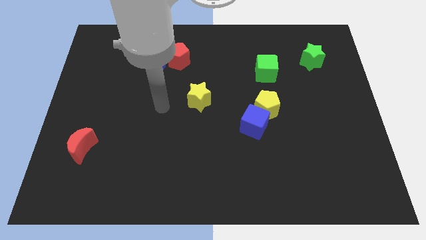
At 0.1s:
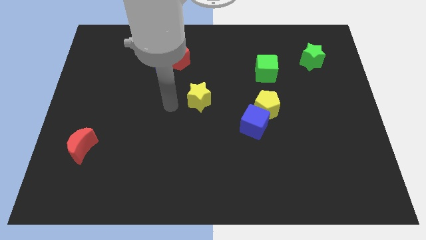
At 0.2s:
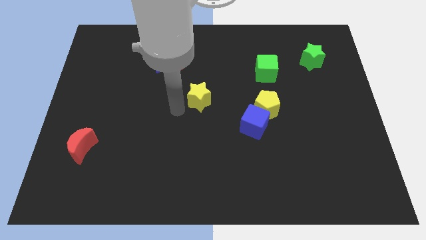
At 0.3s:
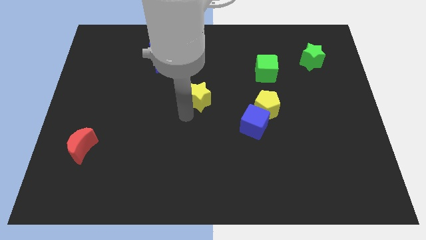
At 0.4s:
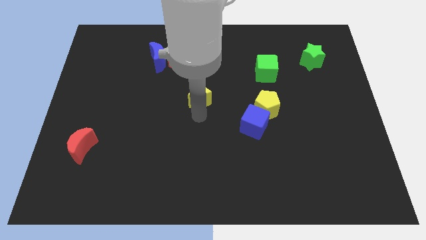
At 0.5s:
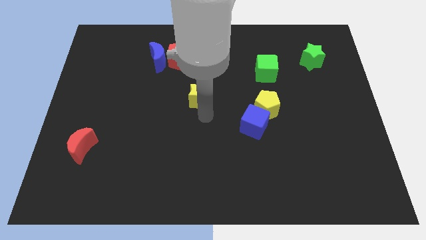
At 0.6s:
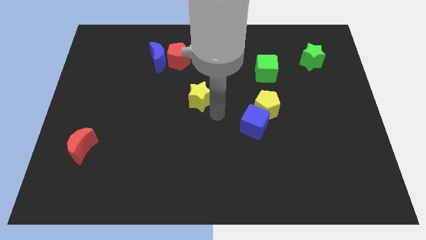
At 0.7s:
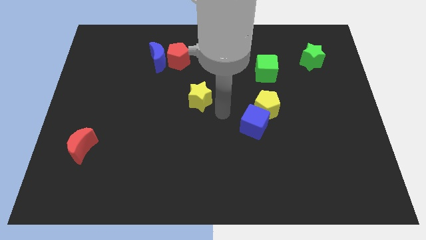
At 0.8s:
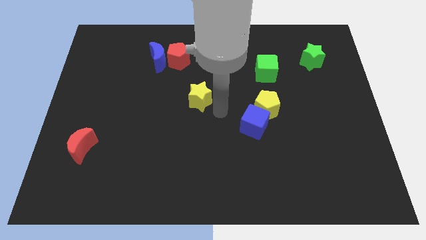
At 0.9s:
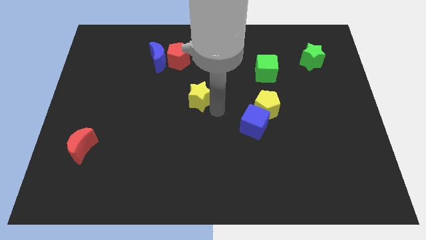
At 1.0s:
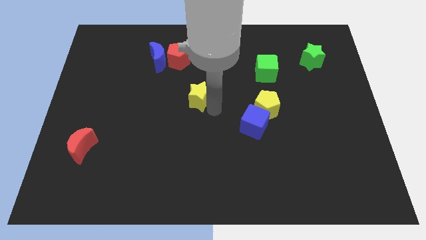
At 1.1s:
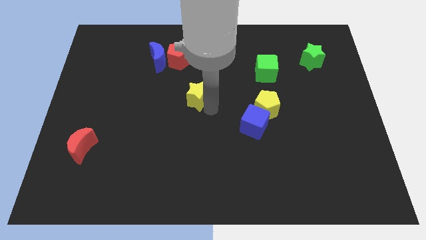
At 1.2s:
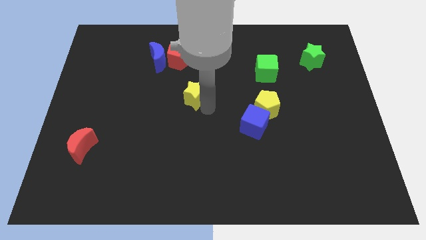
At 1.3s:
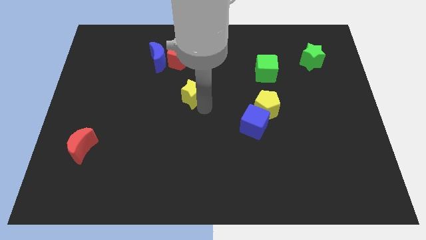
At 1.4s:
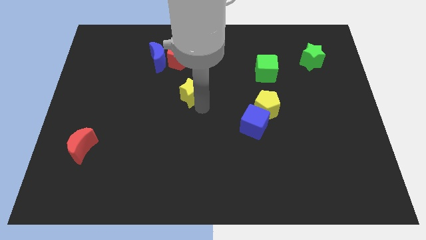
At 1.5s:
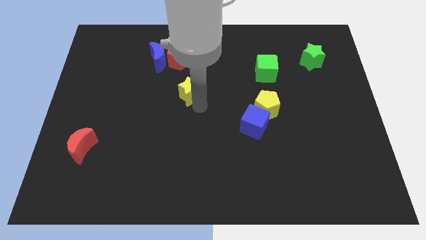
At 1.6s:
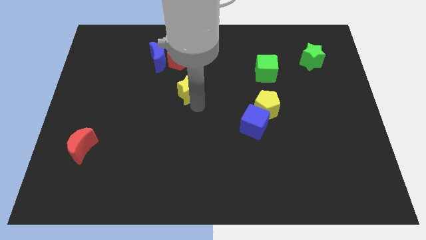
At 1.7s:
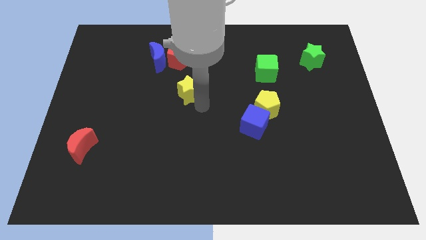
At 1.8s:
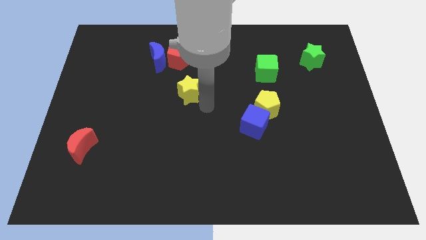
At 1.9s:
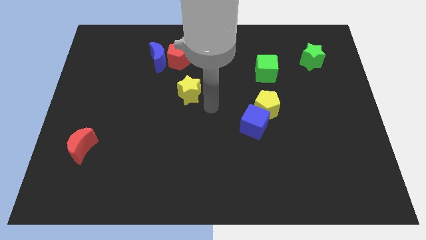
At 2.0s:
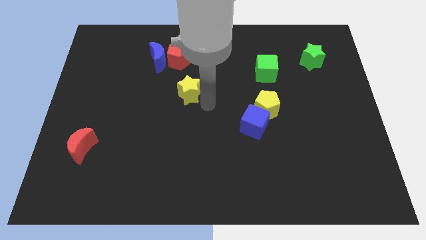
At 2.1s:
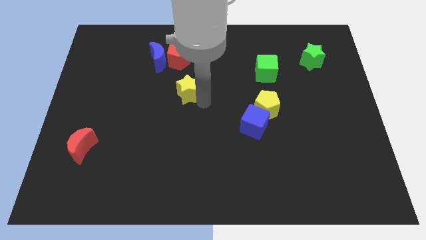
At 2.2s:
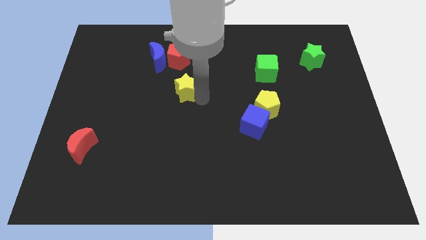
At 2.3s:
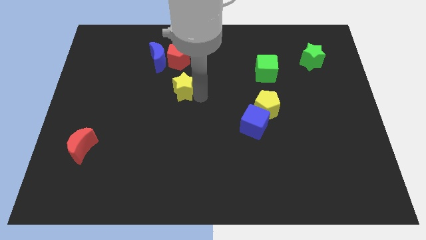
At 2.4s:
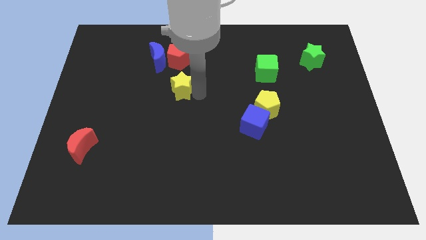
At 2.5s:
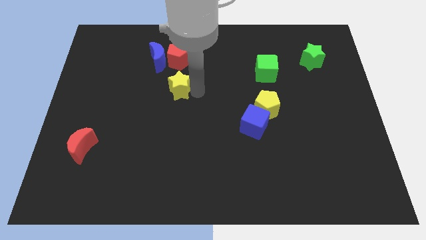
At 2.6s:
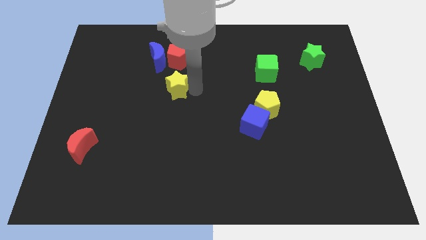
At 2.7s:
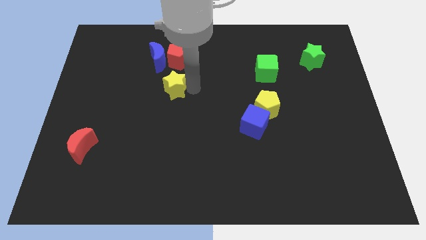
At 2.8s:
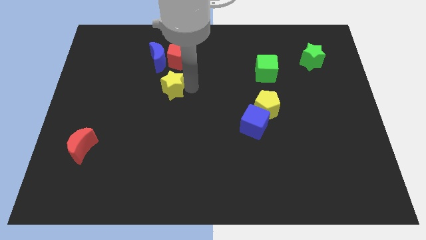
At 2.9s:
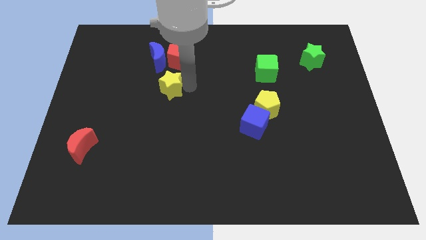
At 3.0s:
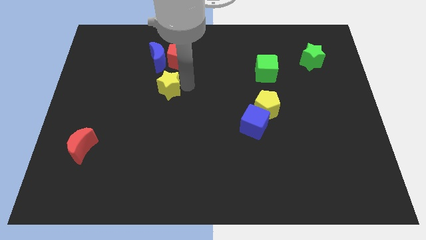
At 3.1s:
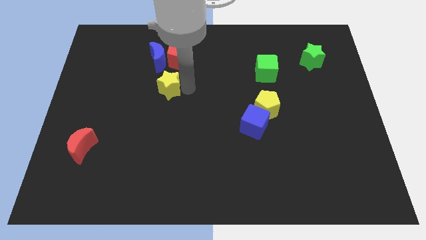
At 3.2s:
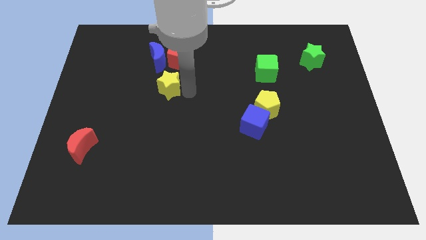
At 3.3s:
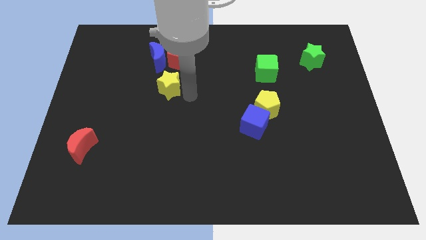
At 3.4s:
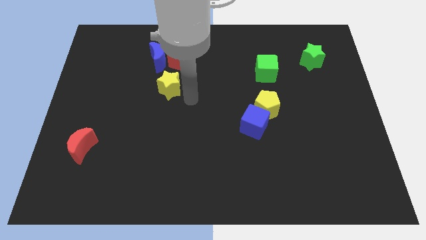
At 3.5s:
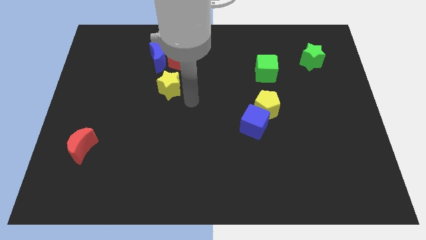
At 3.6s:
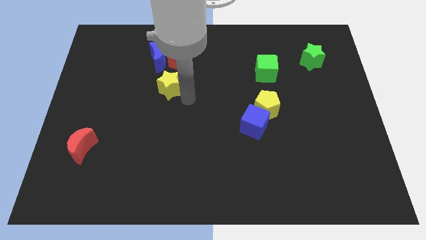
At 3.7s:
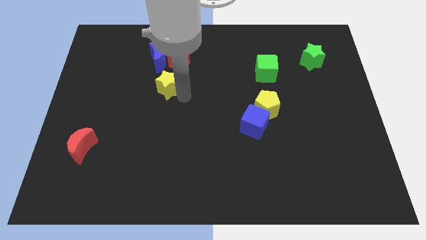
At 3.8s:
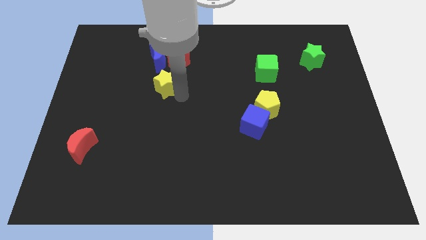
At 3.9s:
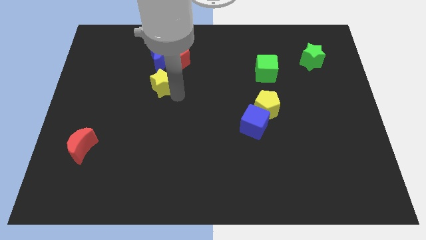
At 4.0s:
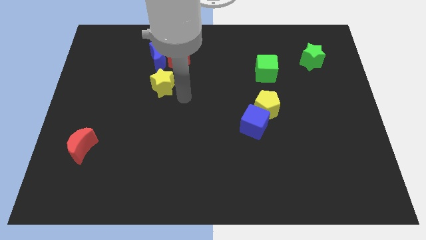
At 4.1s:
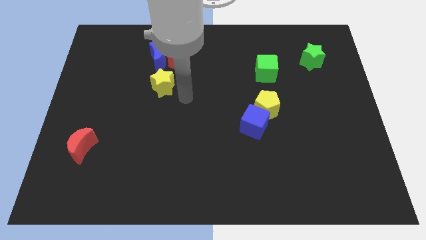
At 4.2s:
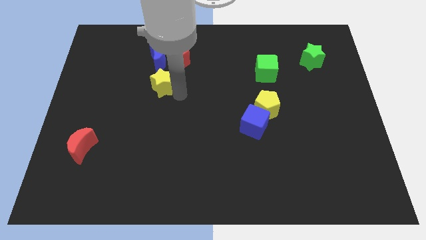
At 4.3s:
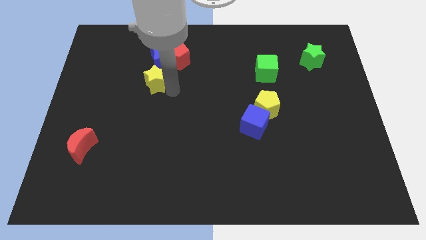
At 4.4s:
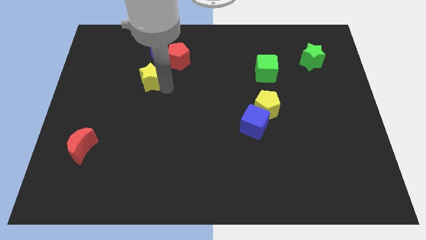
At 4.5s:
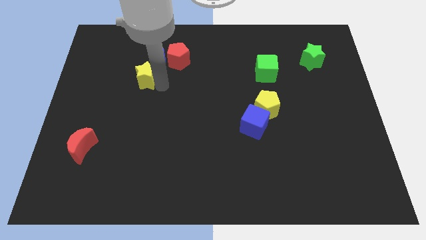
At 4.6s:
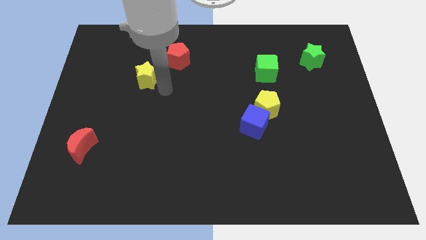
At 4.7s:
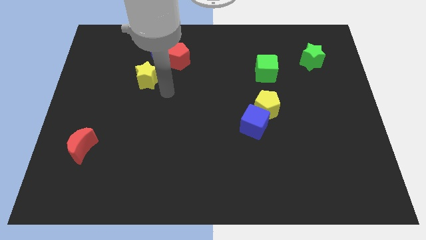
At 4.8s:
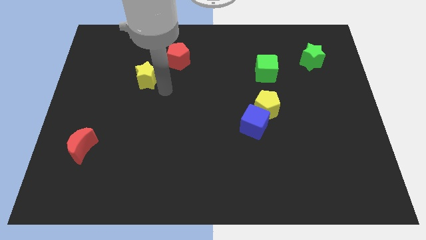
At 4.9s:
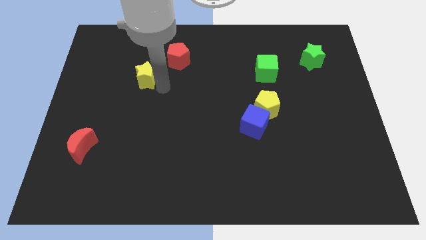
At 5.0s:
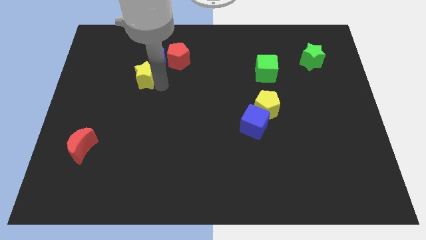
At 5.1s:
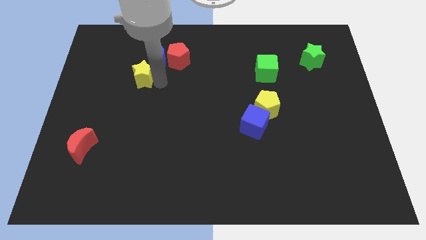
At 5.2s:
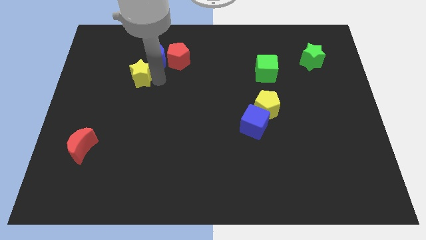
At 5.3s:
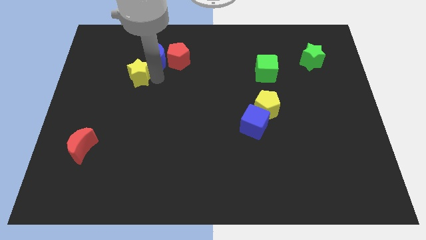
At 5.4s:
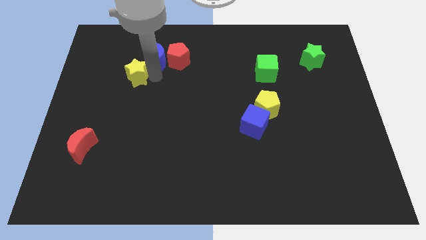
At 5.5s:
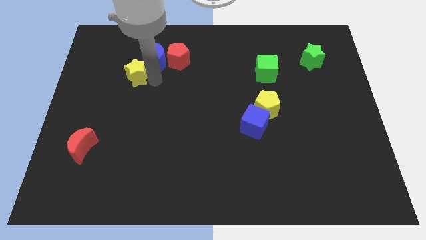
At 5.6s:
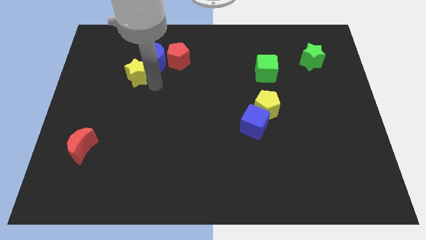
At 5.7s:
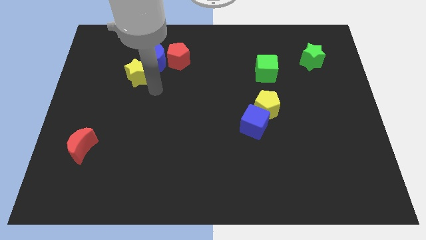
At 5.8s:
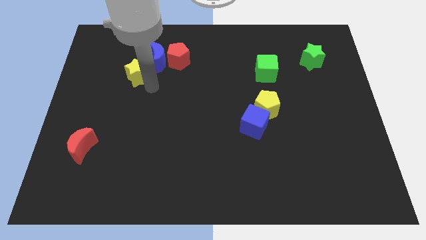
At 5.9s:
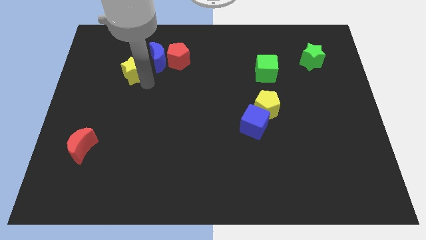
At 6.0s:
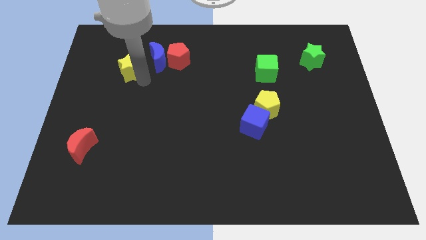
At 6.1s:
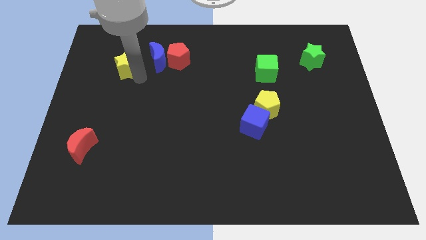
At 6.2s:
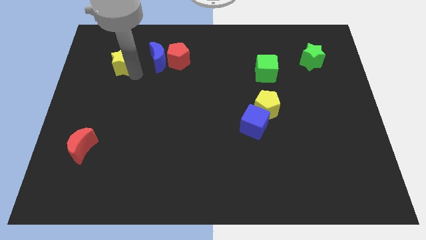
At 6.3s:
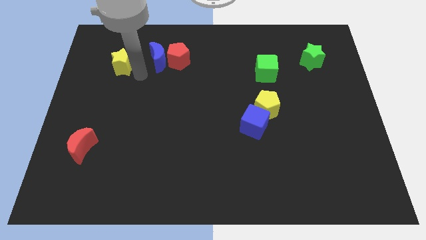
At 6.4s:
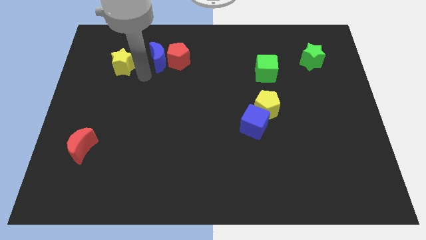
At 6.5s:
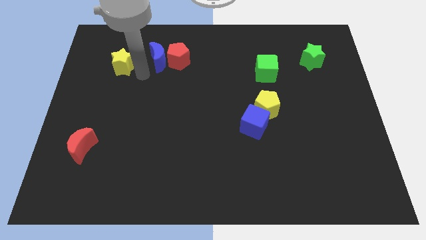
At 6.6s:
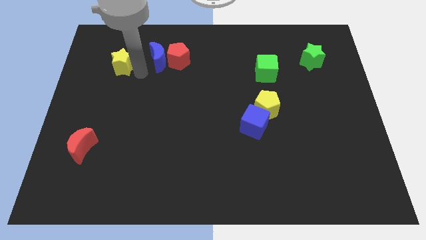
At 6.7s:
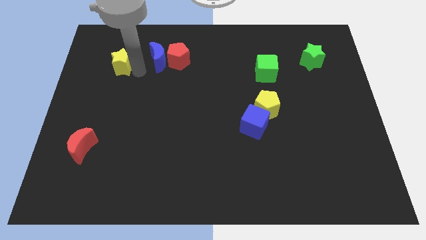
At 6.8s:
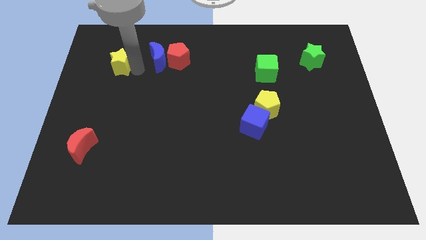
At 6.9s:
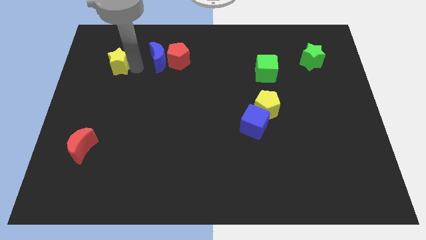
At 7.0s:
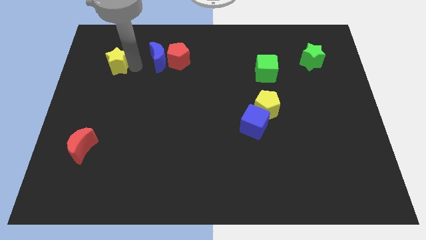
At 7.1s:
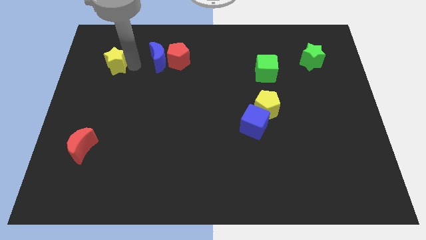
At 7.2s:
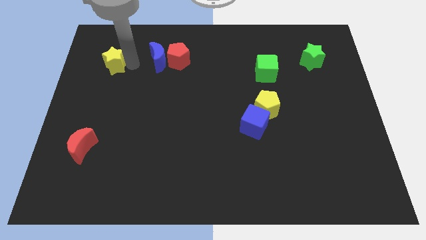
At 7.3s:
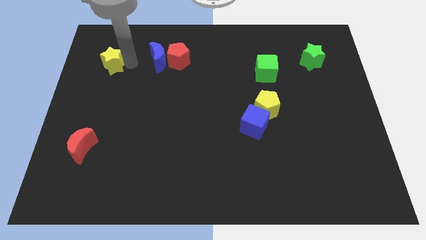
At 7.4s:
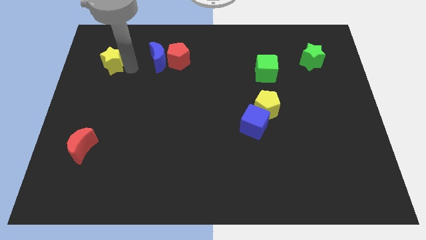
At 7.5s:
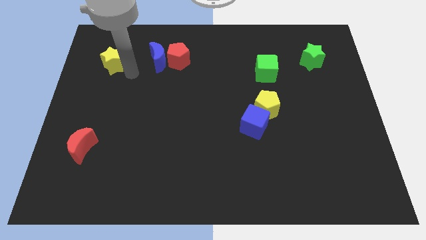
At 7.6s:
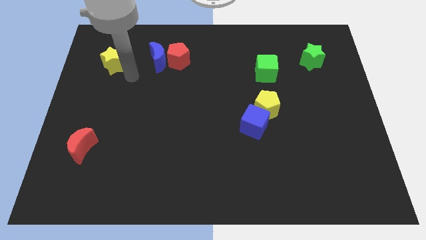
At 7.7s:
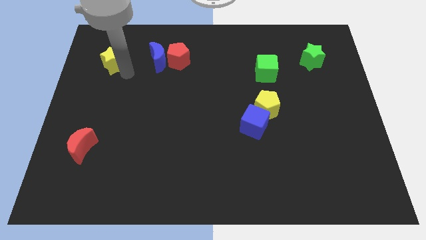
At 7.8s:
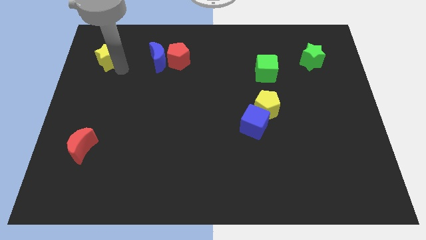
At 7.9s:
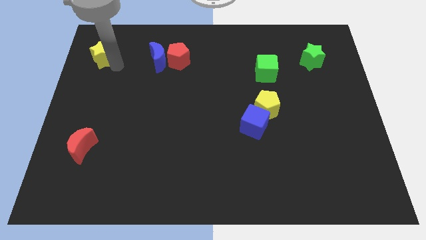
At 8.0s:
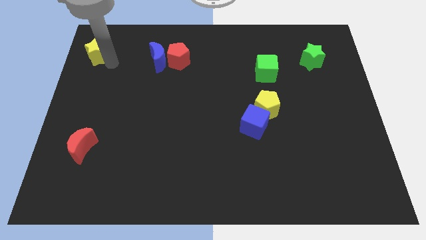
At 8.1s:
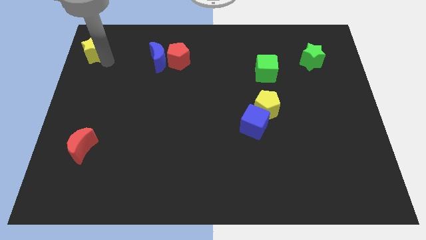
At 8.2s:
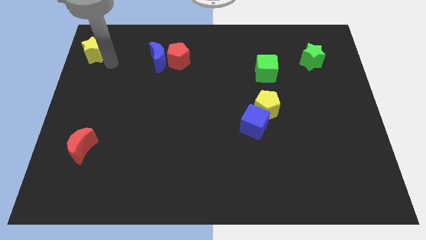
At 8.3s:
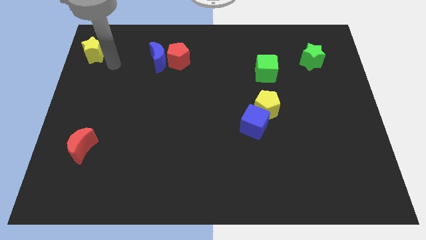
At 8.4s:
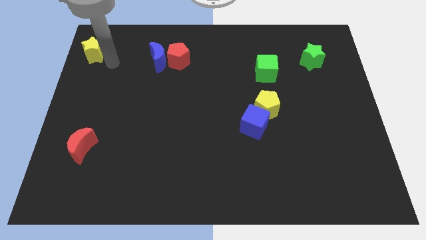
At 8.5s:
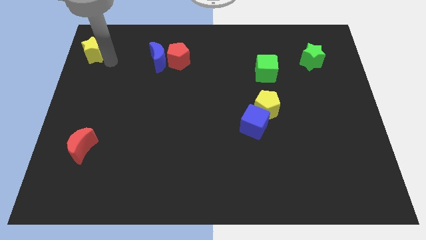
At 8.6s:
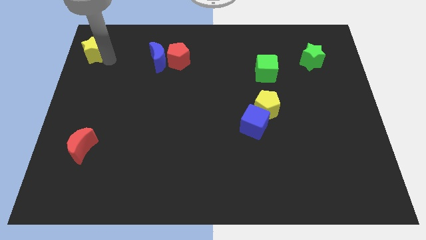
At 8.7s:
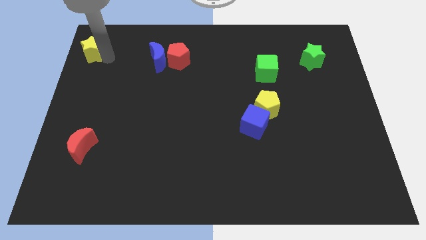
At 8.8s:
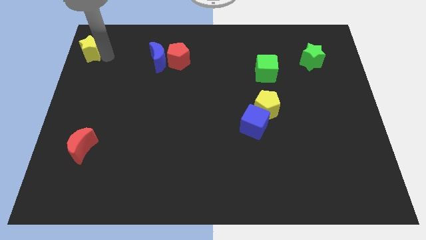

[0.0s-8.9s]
move the yellow star to the top left
